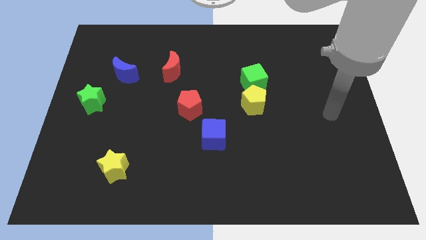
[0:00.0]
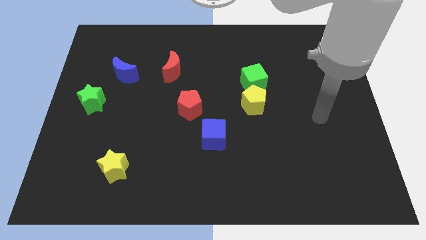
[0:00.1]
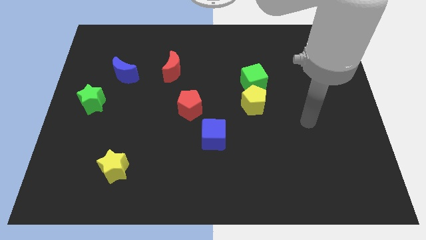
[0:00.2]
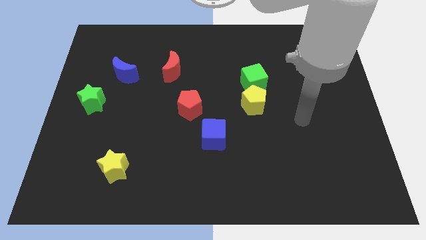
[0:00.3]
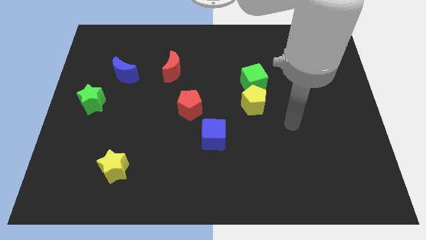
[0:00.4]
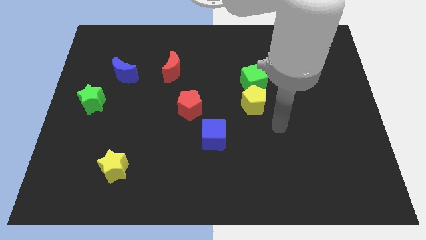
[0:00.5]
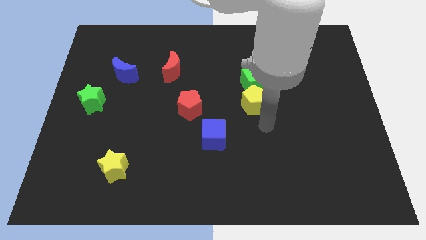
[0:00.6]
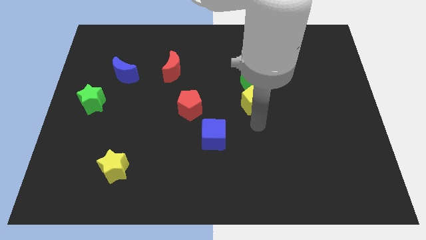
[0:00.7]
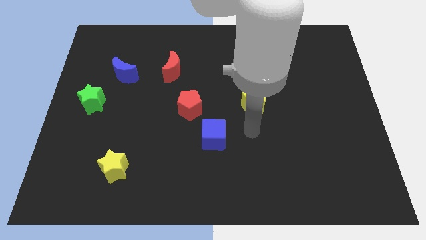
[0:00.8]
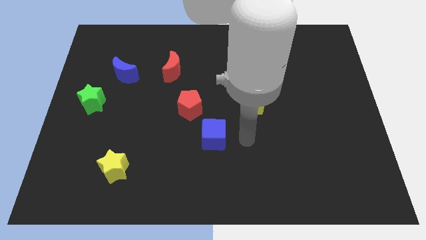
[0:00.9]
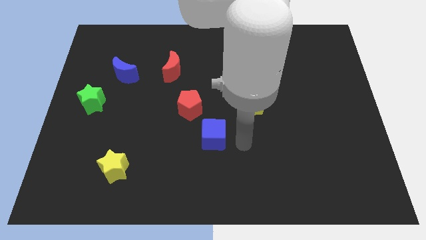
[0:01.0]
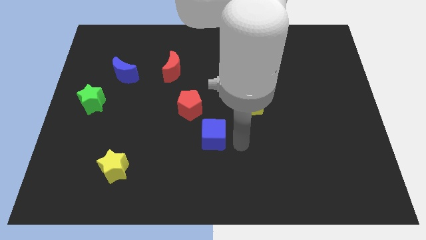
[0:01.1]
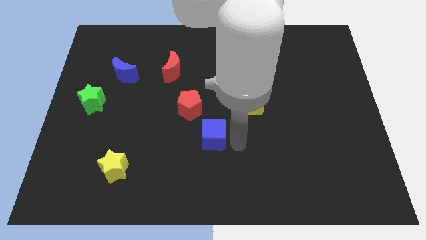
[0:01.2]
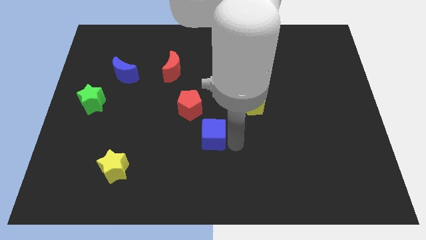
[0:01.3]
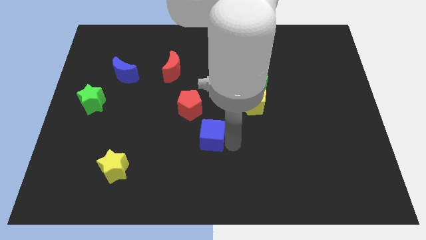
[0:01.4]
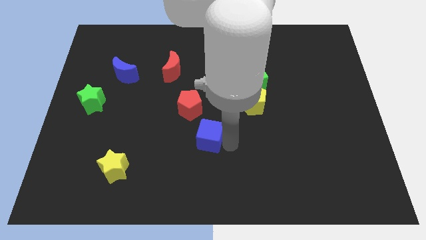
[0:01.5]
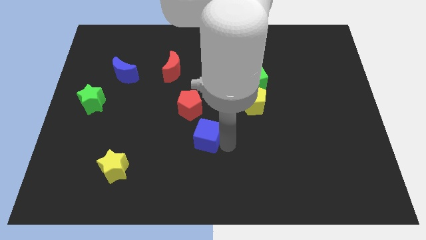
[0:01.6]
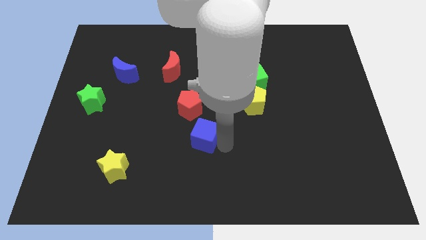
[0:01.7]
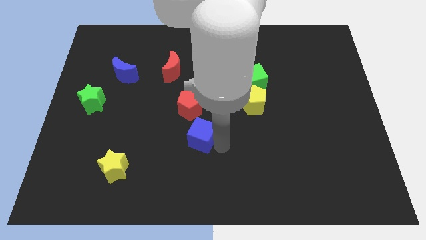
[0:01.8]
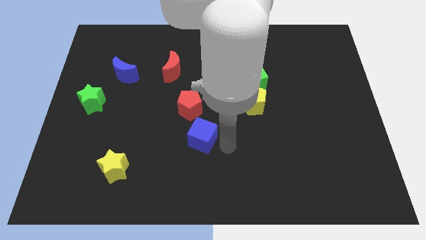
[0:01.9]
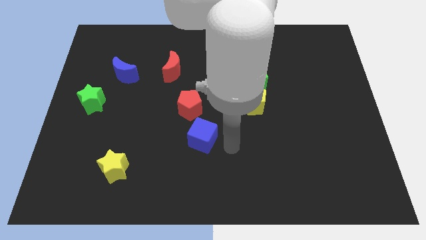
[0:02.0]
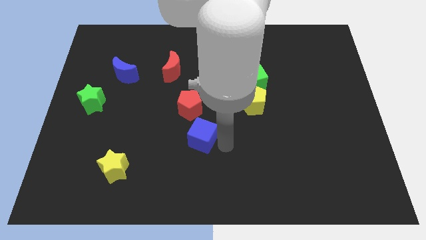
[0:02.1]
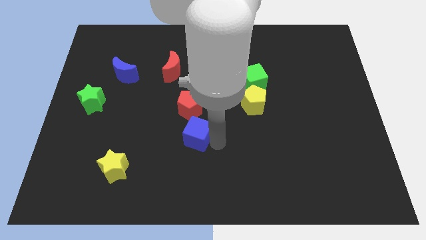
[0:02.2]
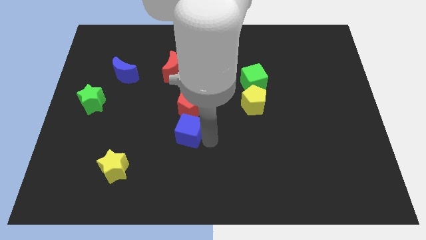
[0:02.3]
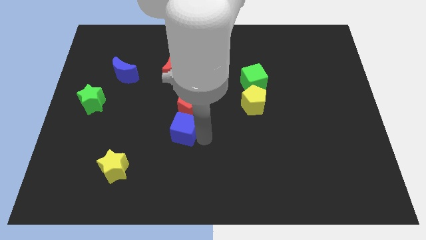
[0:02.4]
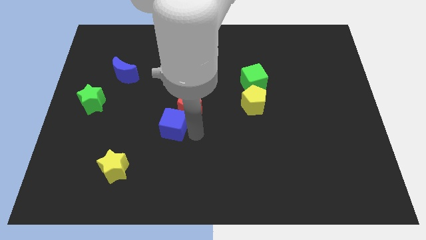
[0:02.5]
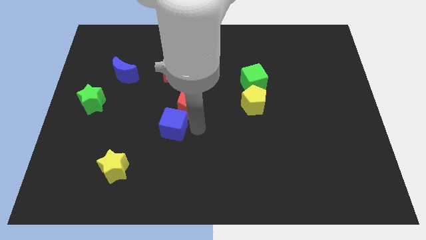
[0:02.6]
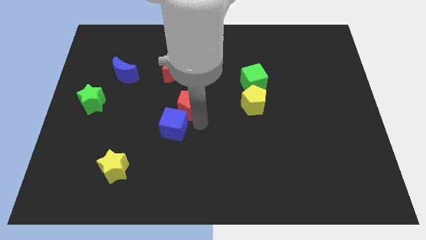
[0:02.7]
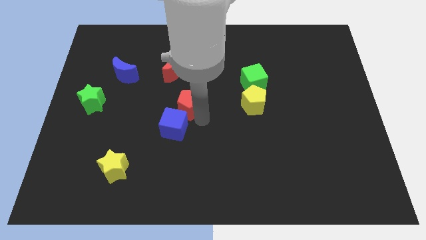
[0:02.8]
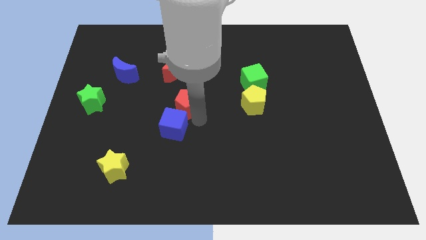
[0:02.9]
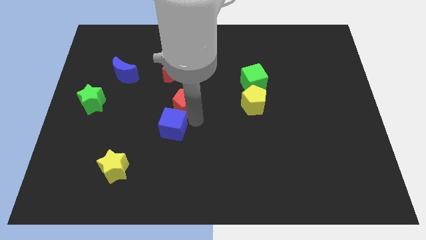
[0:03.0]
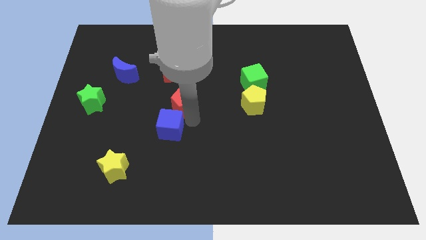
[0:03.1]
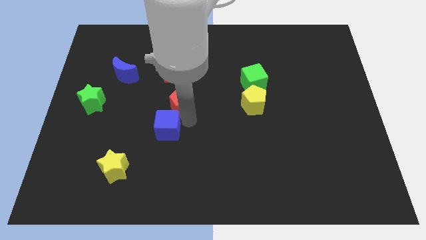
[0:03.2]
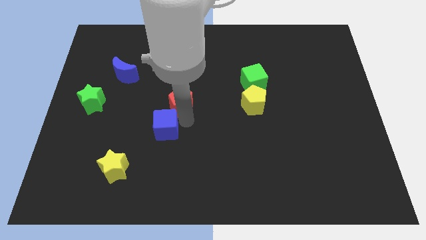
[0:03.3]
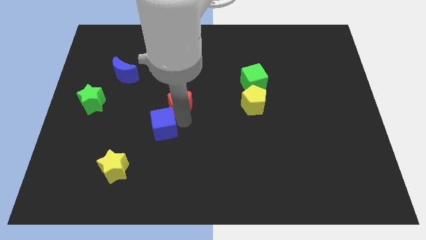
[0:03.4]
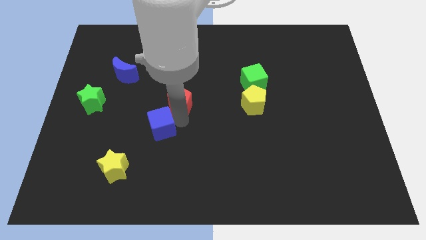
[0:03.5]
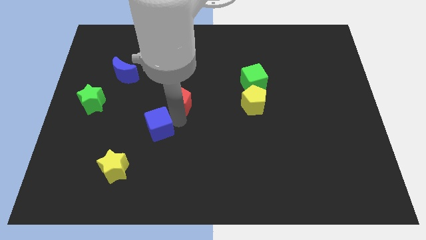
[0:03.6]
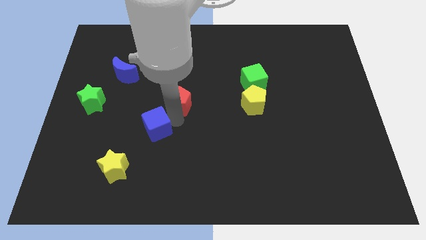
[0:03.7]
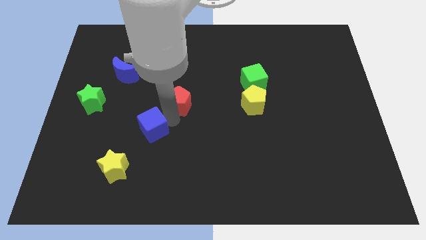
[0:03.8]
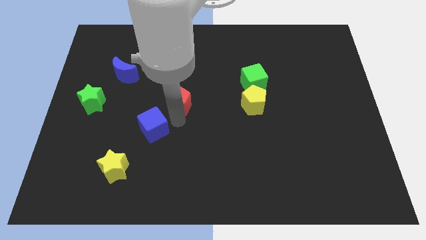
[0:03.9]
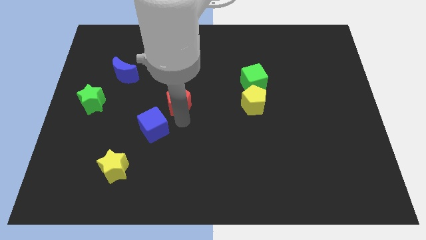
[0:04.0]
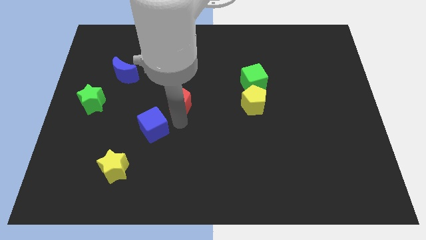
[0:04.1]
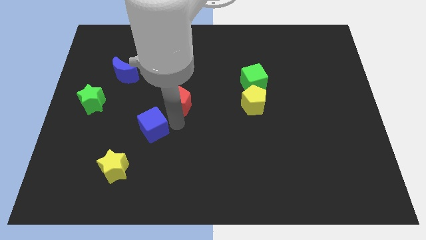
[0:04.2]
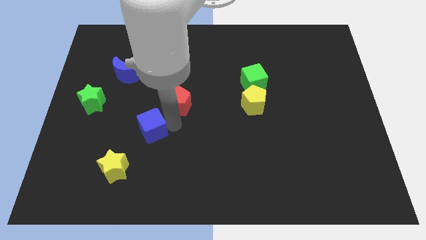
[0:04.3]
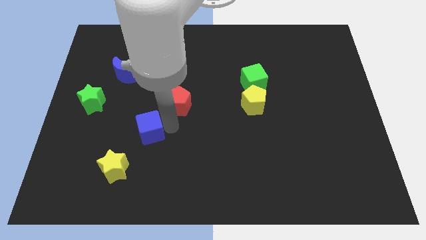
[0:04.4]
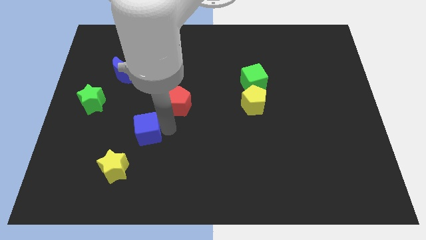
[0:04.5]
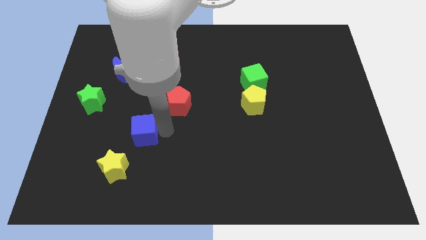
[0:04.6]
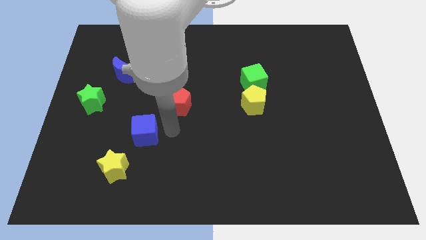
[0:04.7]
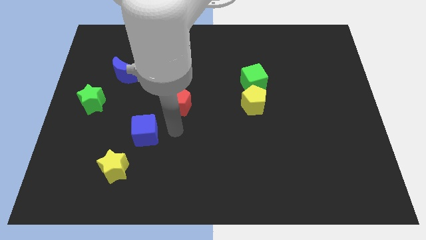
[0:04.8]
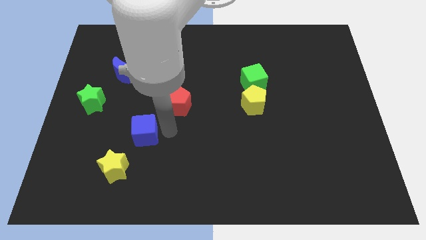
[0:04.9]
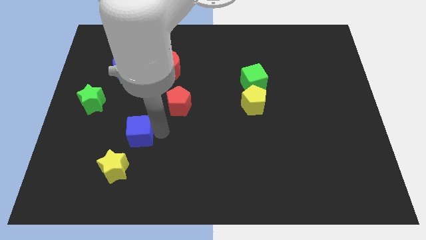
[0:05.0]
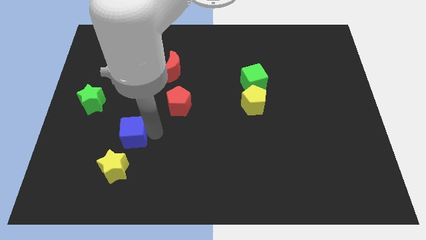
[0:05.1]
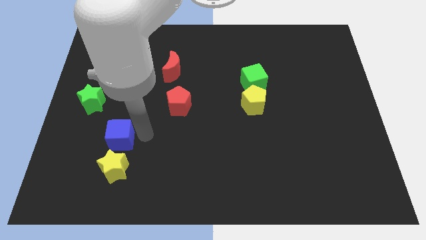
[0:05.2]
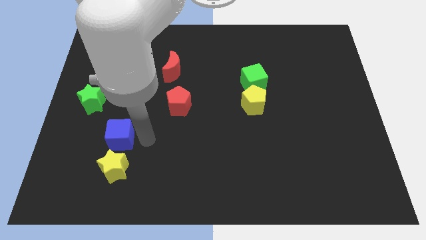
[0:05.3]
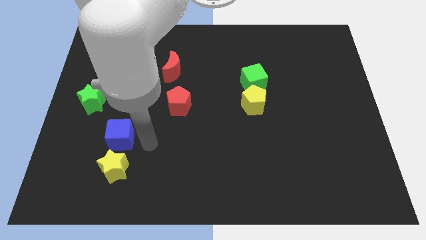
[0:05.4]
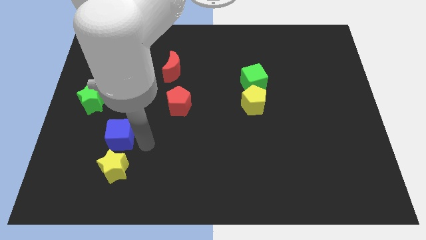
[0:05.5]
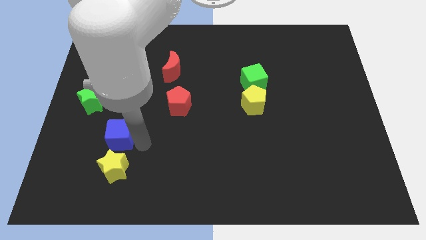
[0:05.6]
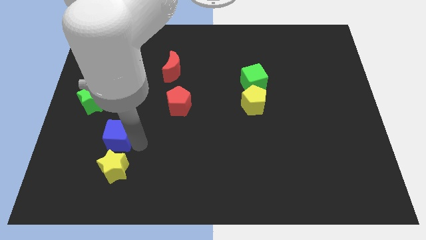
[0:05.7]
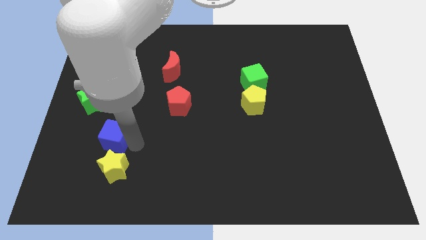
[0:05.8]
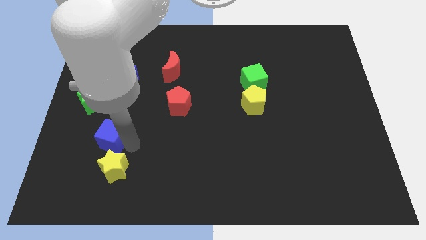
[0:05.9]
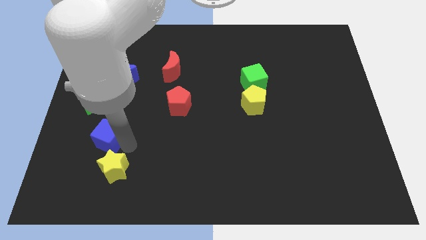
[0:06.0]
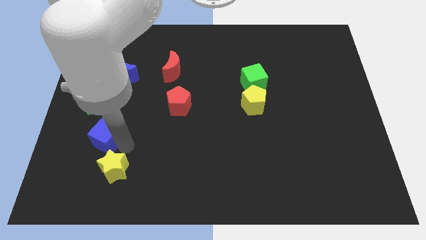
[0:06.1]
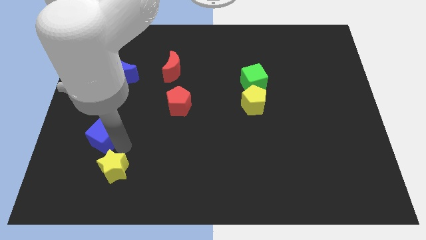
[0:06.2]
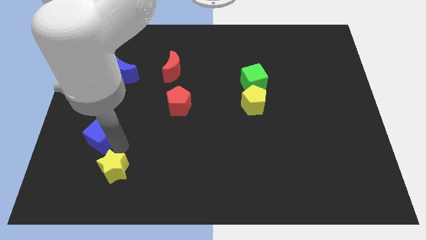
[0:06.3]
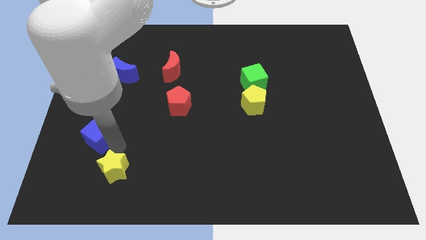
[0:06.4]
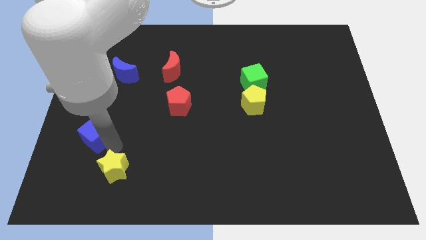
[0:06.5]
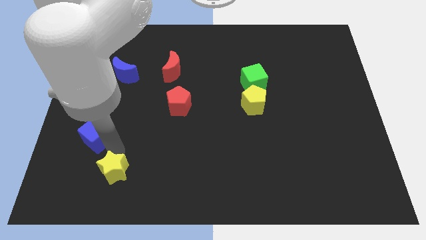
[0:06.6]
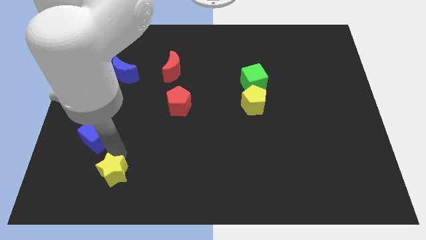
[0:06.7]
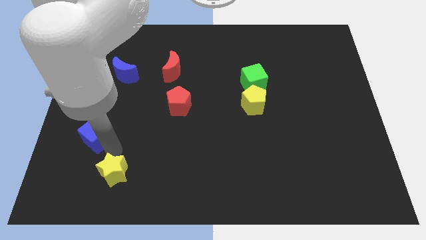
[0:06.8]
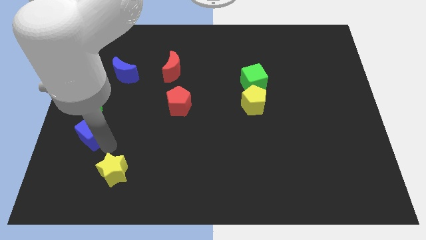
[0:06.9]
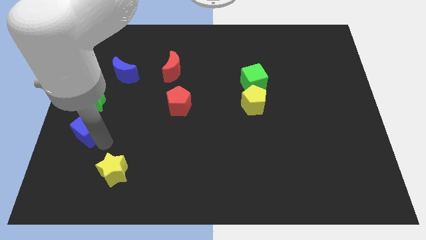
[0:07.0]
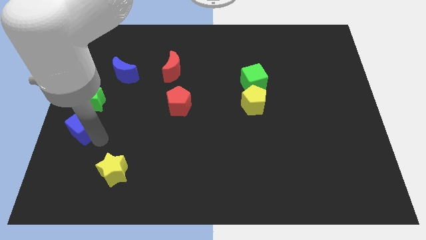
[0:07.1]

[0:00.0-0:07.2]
slide the blue cube to the left side of the board
